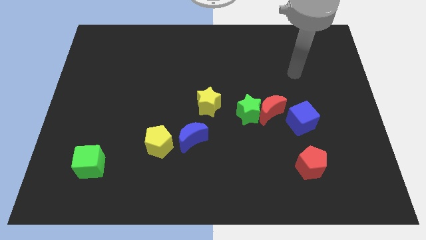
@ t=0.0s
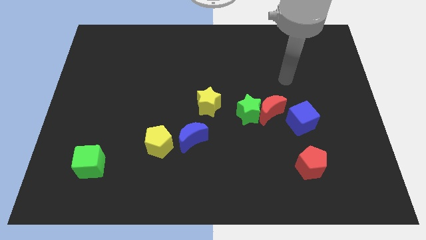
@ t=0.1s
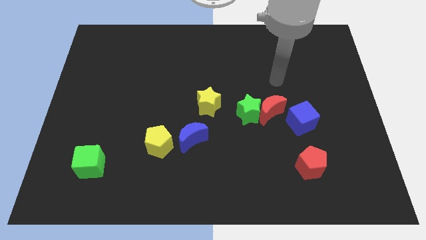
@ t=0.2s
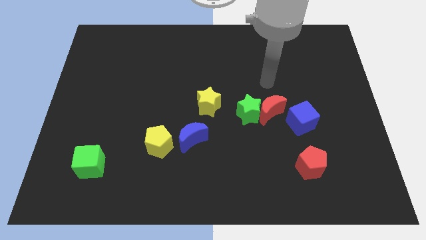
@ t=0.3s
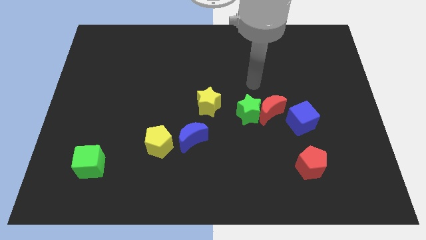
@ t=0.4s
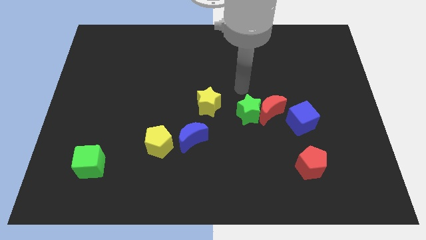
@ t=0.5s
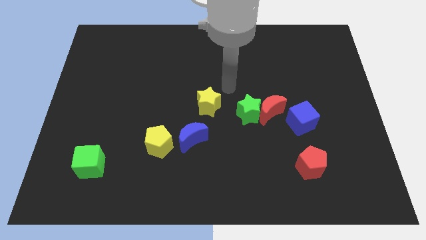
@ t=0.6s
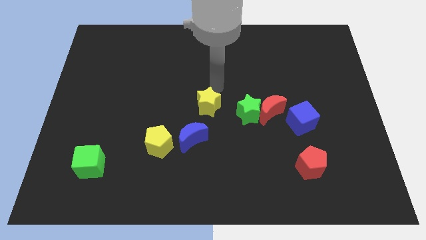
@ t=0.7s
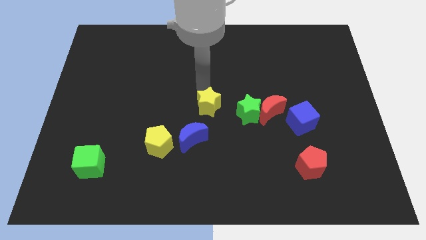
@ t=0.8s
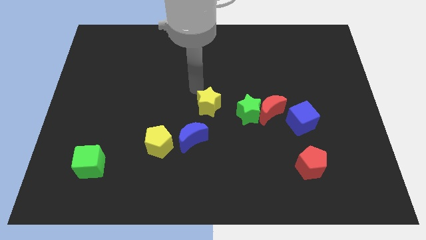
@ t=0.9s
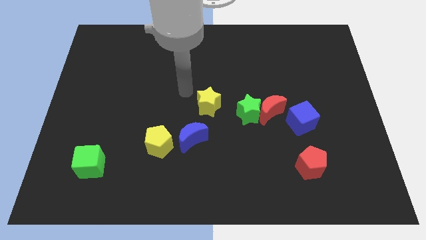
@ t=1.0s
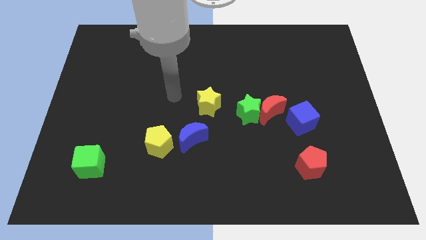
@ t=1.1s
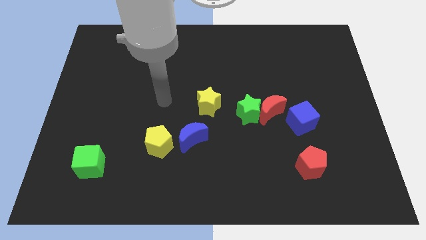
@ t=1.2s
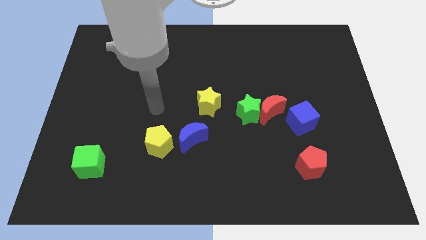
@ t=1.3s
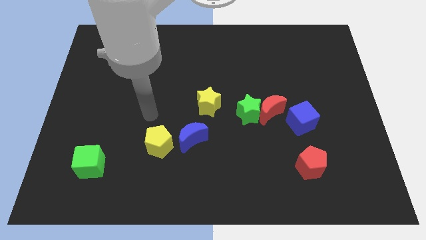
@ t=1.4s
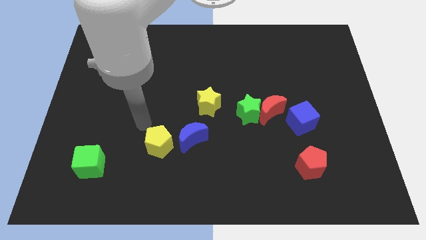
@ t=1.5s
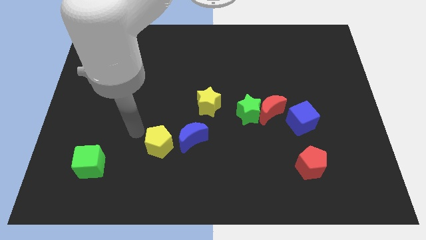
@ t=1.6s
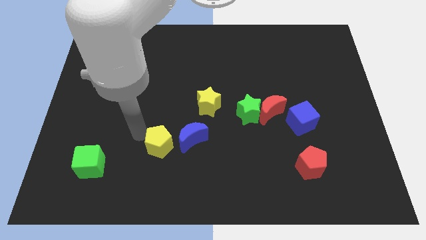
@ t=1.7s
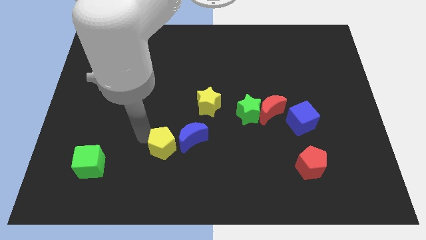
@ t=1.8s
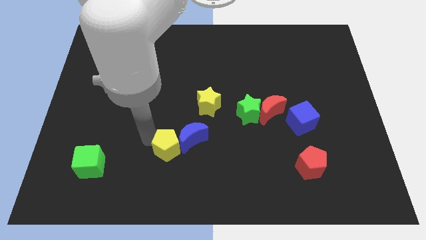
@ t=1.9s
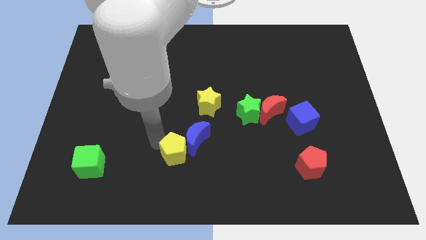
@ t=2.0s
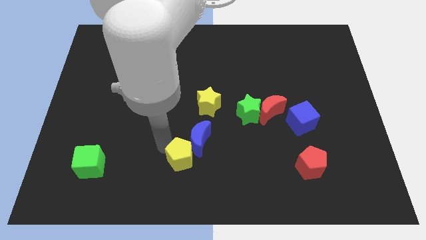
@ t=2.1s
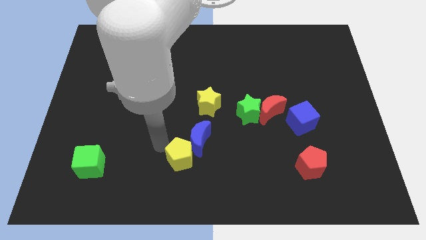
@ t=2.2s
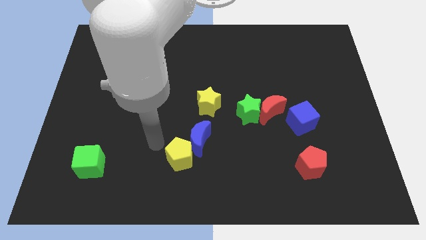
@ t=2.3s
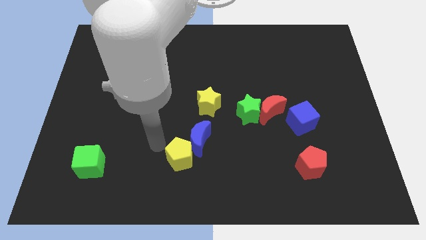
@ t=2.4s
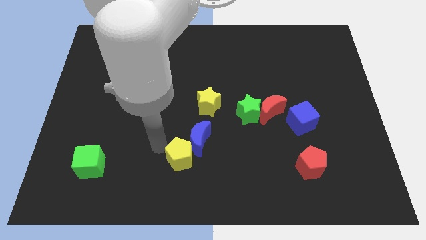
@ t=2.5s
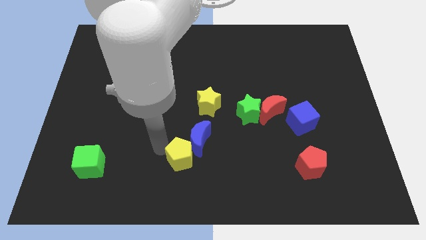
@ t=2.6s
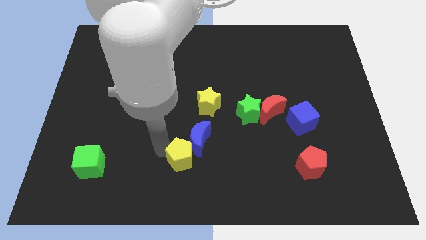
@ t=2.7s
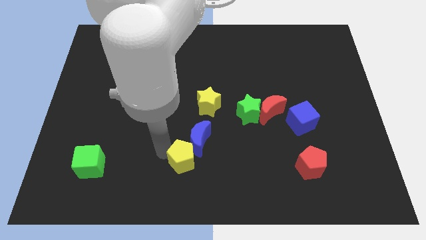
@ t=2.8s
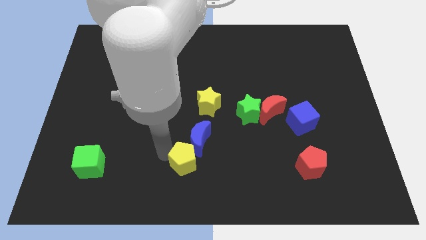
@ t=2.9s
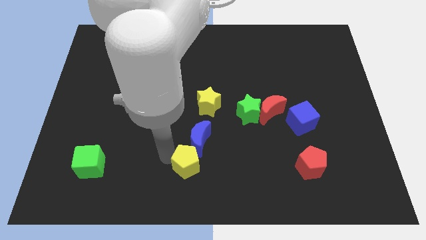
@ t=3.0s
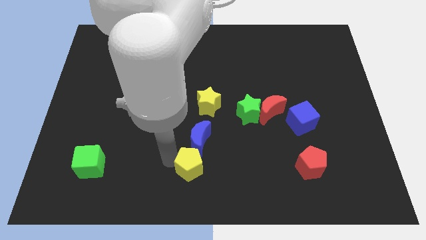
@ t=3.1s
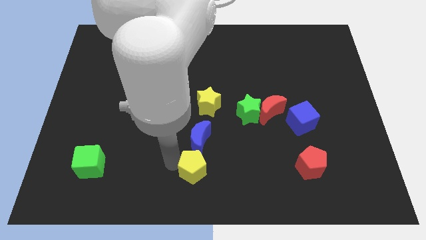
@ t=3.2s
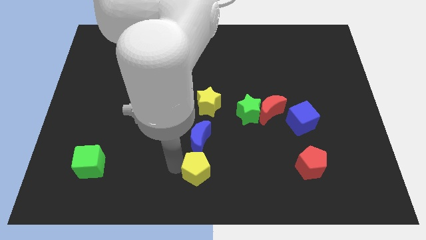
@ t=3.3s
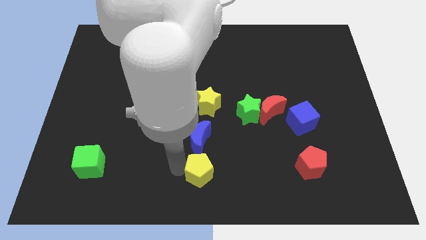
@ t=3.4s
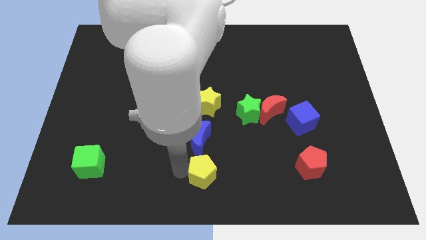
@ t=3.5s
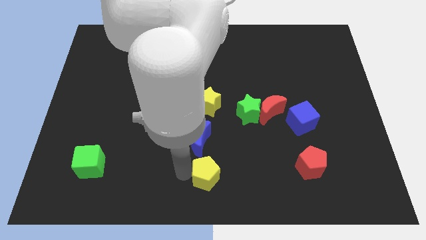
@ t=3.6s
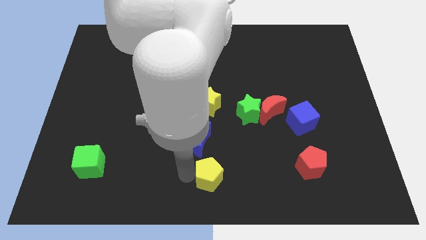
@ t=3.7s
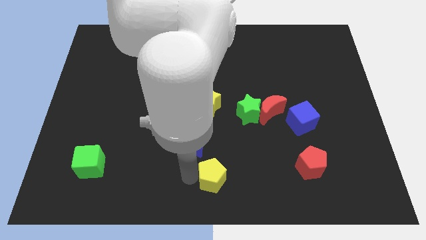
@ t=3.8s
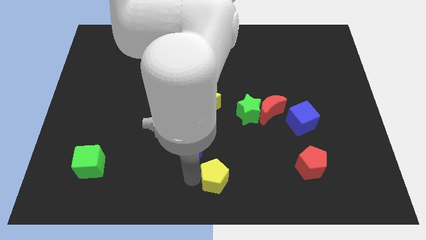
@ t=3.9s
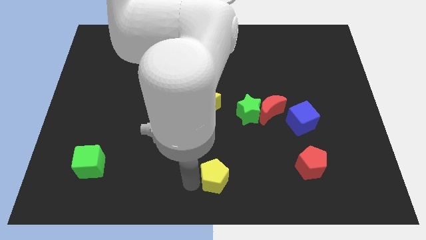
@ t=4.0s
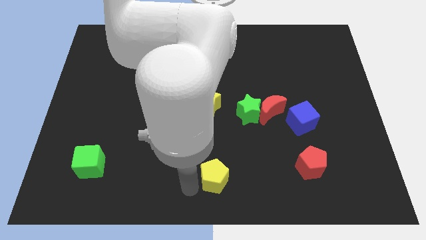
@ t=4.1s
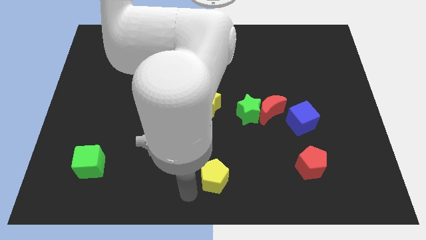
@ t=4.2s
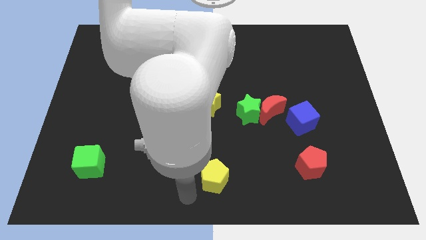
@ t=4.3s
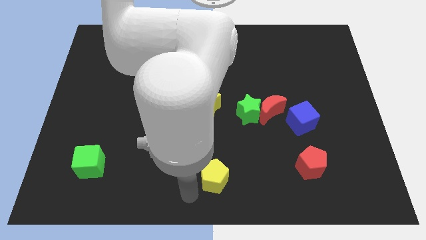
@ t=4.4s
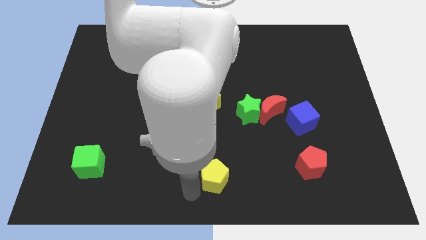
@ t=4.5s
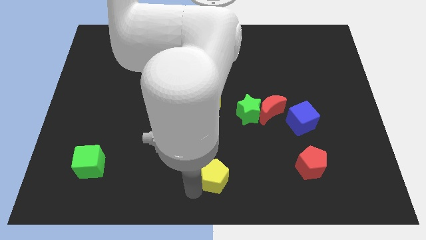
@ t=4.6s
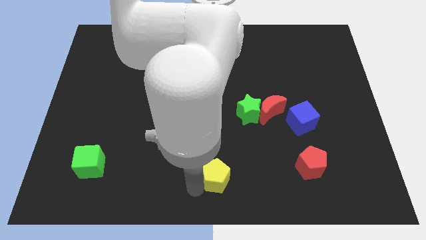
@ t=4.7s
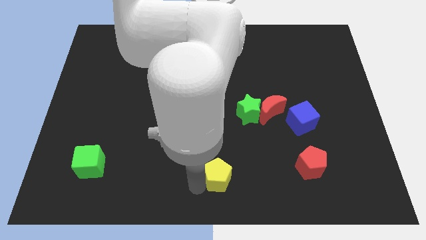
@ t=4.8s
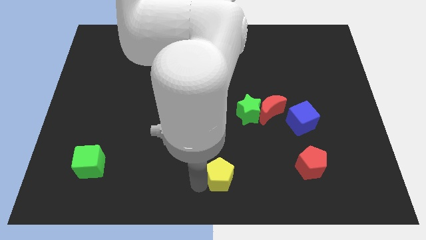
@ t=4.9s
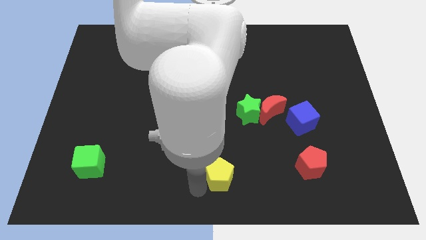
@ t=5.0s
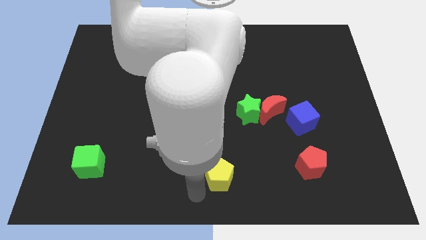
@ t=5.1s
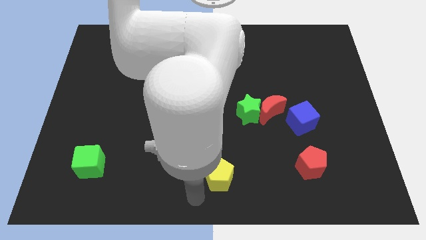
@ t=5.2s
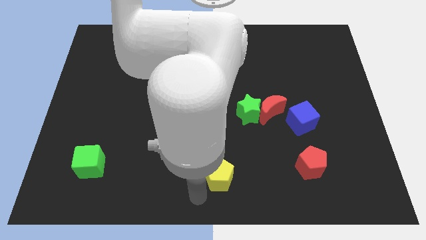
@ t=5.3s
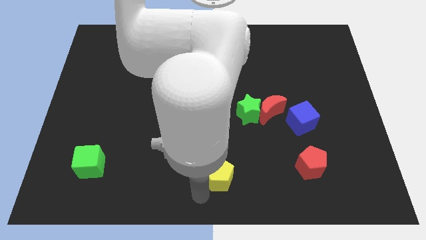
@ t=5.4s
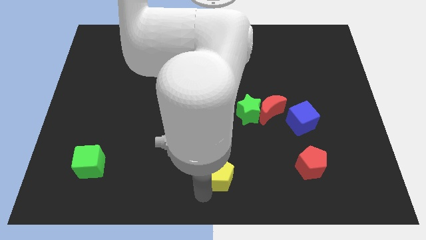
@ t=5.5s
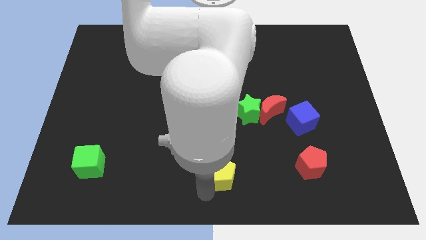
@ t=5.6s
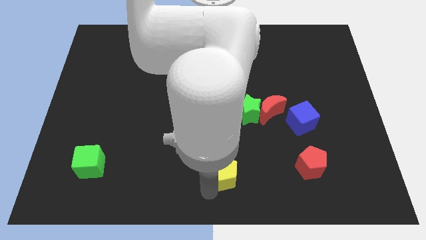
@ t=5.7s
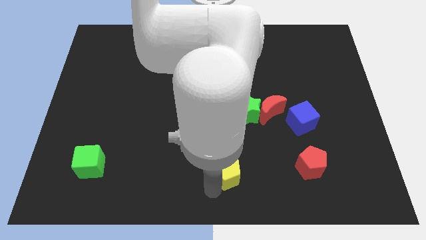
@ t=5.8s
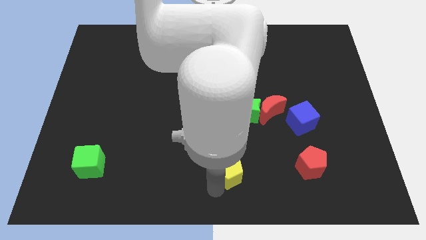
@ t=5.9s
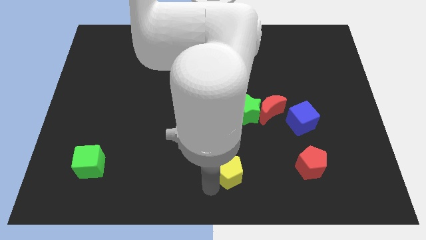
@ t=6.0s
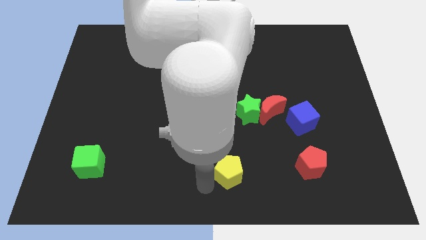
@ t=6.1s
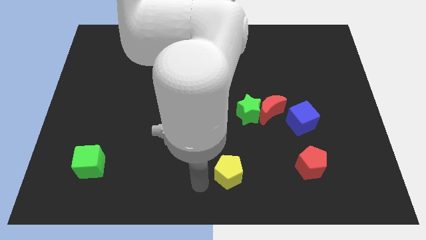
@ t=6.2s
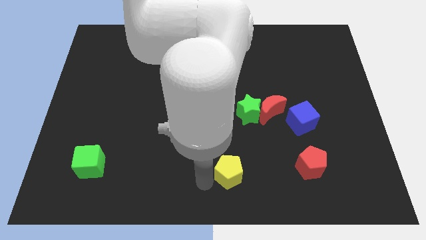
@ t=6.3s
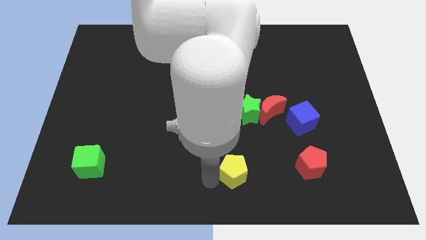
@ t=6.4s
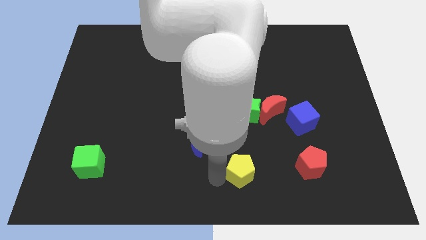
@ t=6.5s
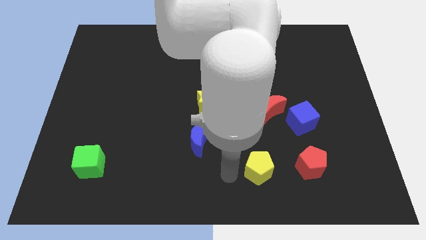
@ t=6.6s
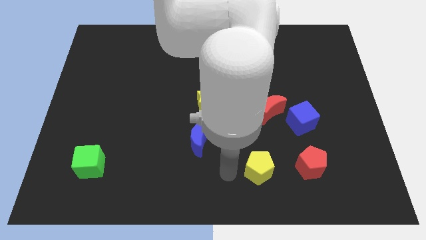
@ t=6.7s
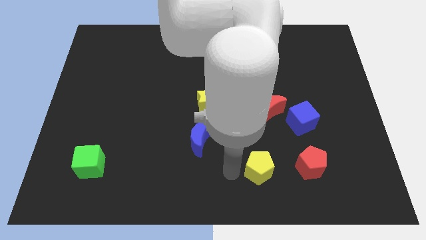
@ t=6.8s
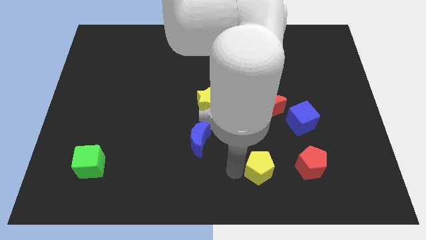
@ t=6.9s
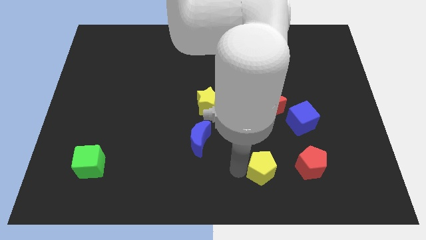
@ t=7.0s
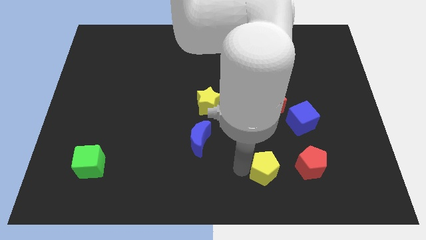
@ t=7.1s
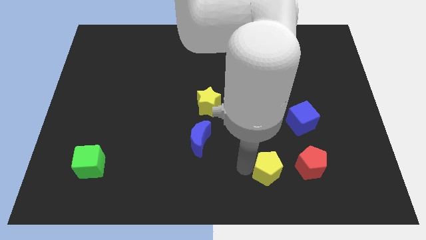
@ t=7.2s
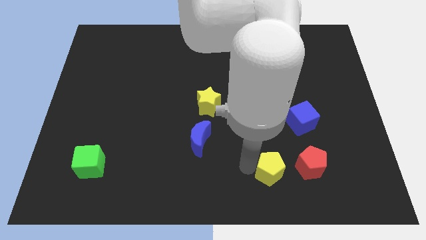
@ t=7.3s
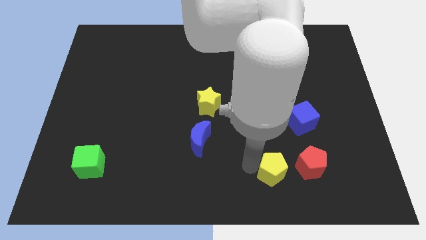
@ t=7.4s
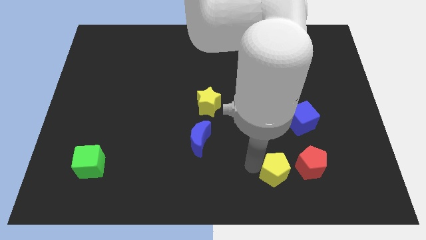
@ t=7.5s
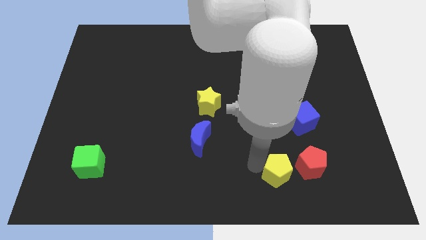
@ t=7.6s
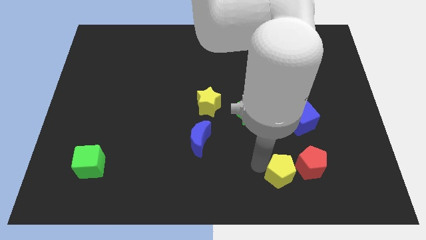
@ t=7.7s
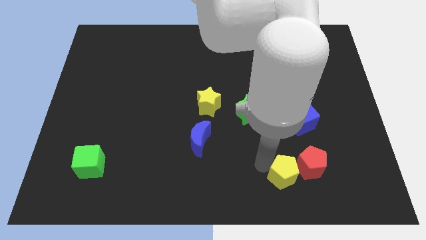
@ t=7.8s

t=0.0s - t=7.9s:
move the yellow pentagon next to the red pentagon
